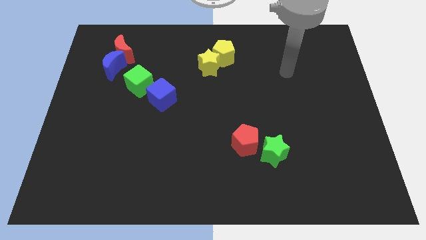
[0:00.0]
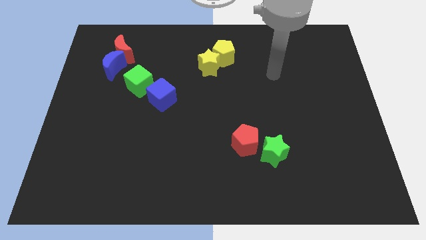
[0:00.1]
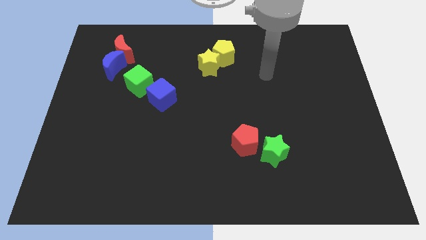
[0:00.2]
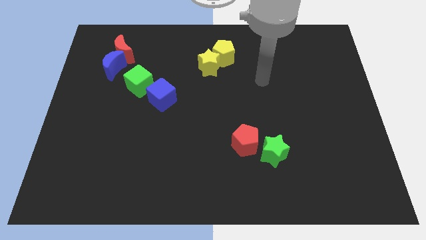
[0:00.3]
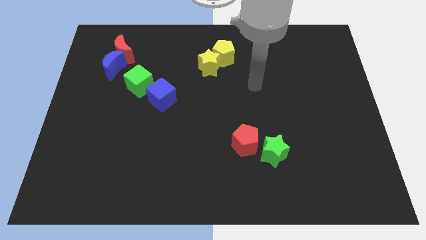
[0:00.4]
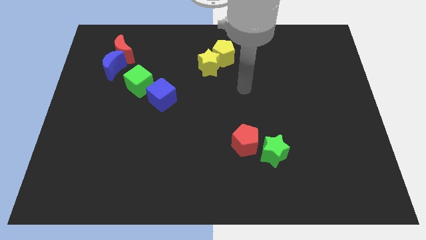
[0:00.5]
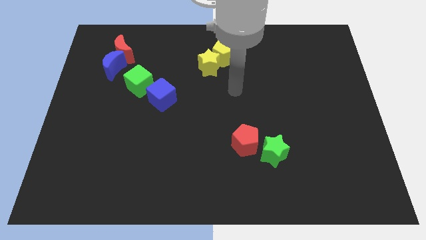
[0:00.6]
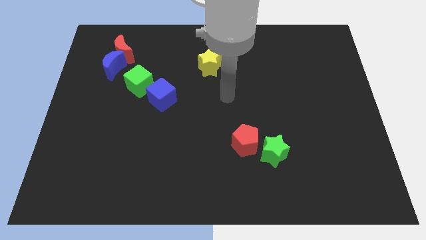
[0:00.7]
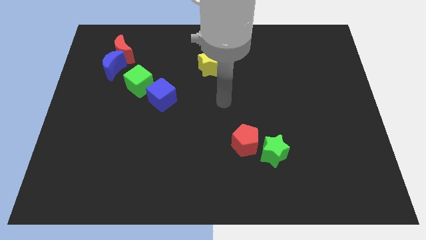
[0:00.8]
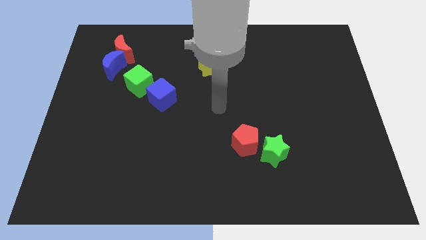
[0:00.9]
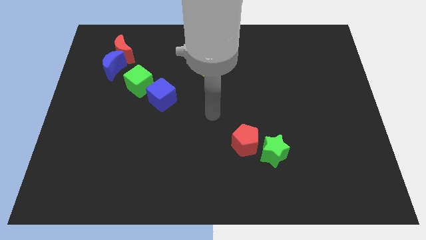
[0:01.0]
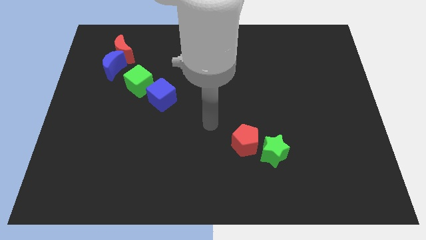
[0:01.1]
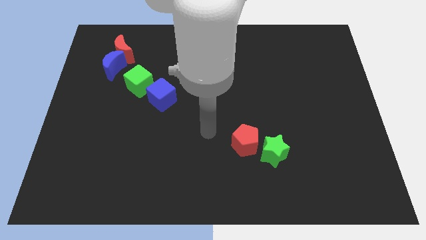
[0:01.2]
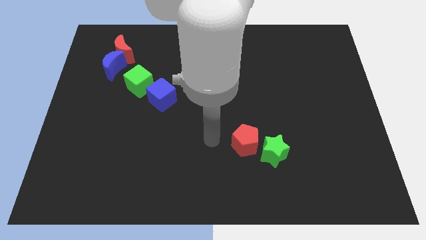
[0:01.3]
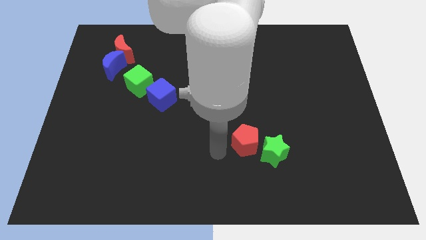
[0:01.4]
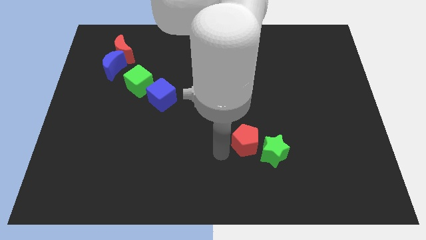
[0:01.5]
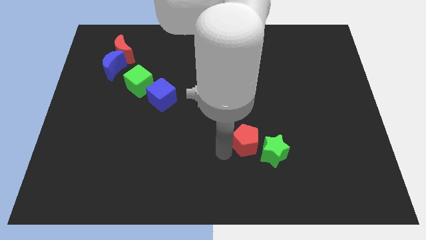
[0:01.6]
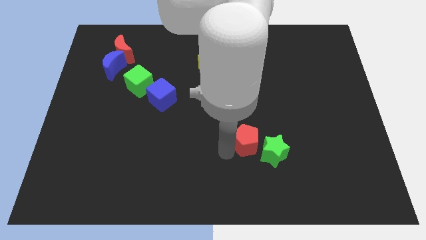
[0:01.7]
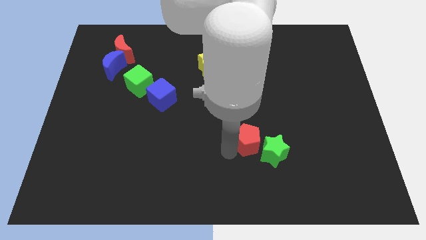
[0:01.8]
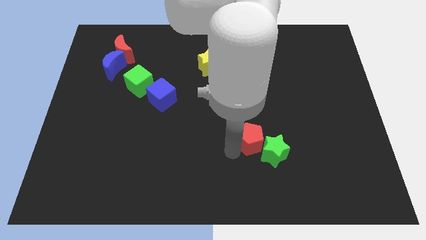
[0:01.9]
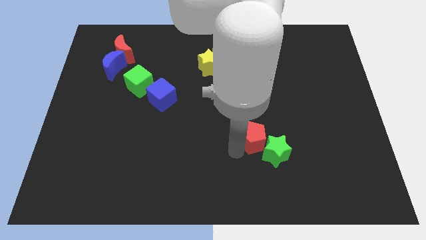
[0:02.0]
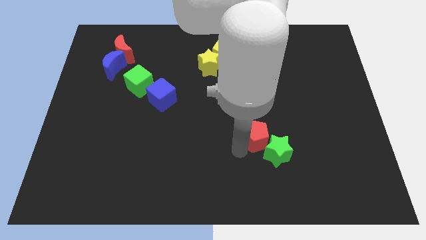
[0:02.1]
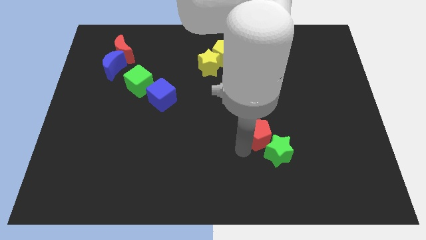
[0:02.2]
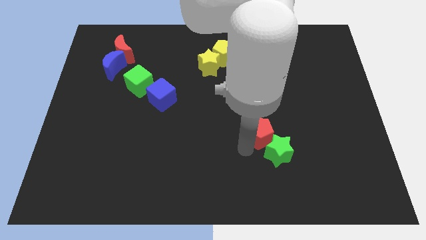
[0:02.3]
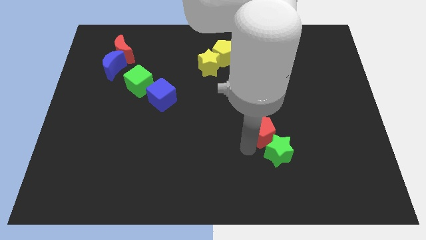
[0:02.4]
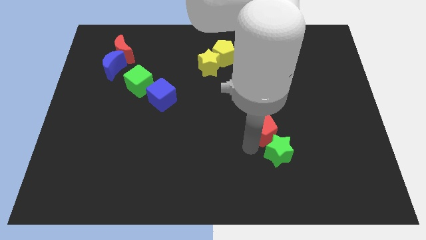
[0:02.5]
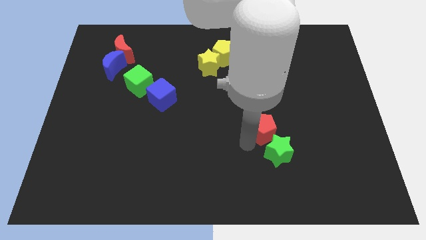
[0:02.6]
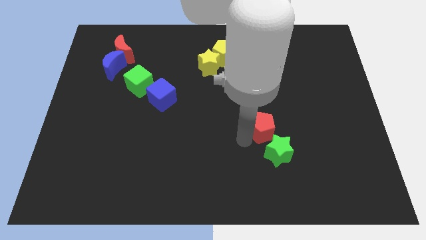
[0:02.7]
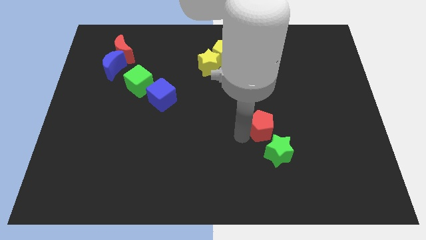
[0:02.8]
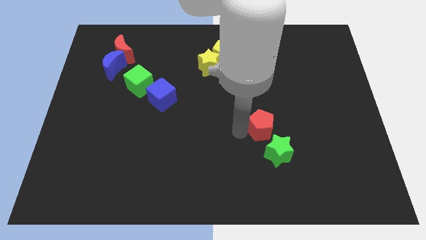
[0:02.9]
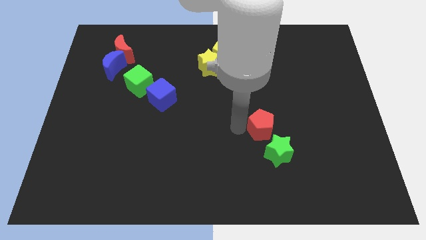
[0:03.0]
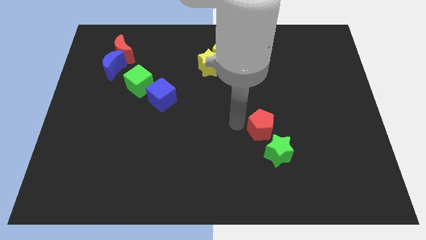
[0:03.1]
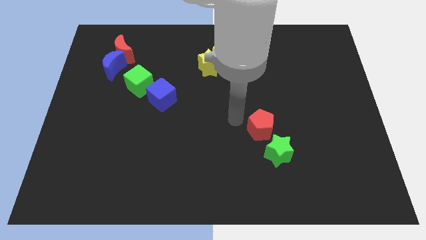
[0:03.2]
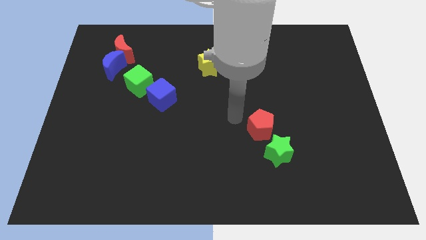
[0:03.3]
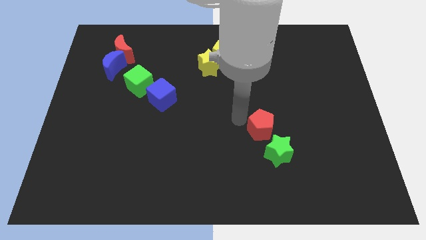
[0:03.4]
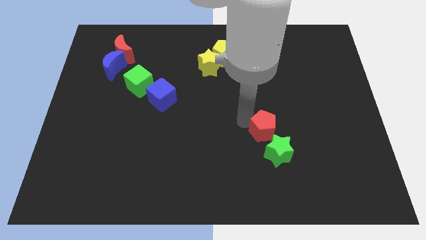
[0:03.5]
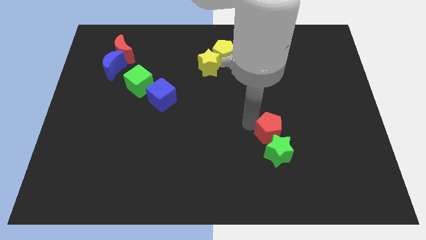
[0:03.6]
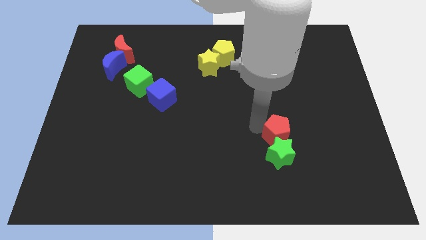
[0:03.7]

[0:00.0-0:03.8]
slightly slide the red pentagon to the right

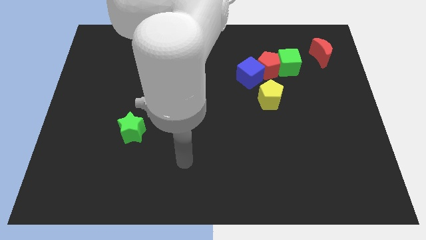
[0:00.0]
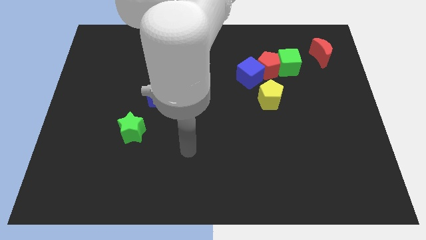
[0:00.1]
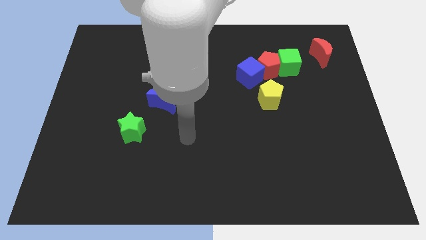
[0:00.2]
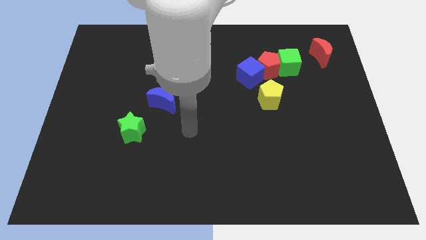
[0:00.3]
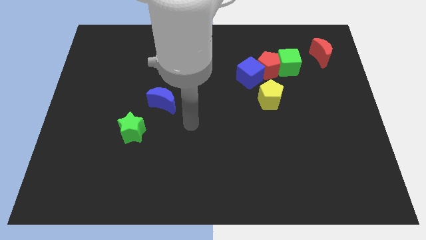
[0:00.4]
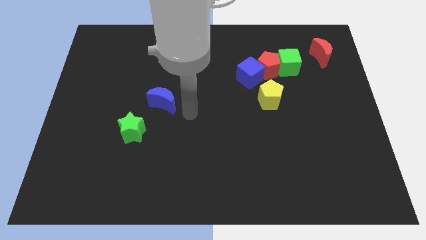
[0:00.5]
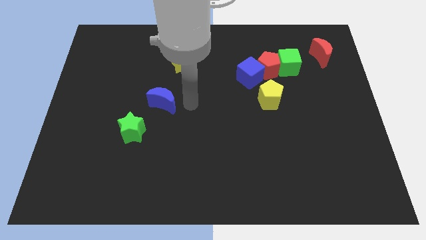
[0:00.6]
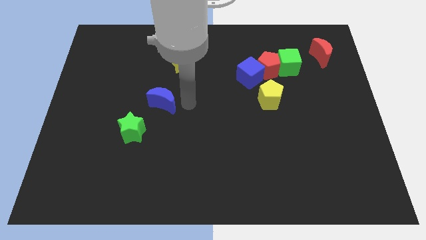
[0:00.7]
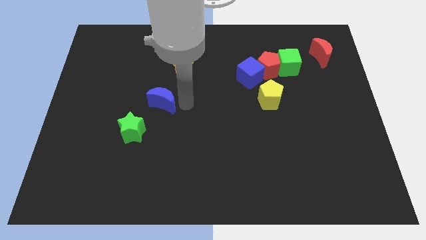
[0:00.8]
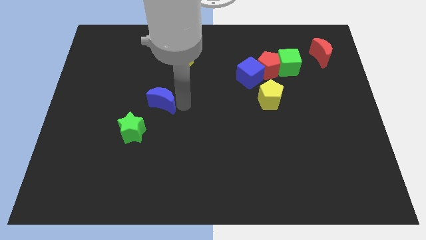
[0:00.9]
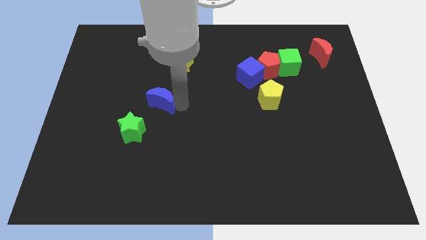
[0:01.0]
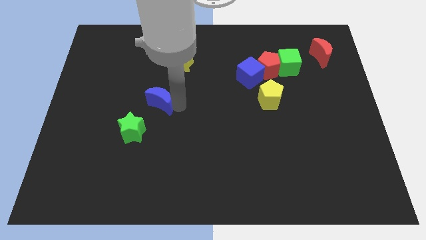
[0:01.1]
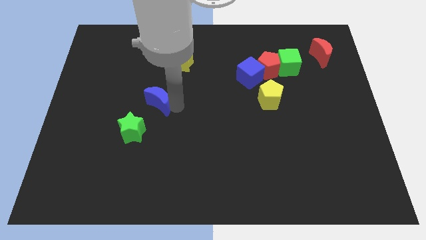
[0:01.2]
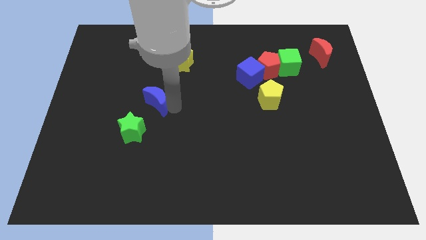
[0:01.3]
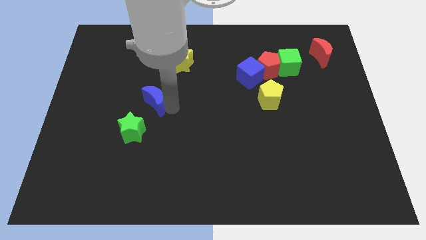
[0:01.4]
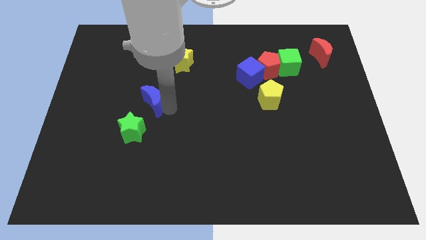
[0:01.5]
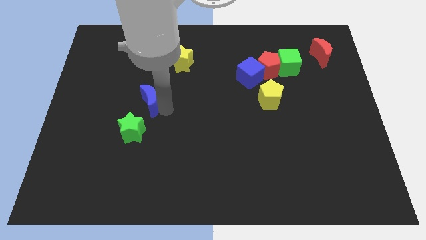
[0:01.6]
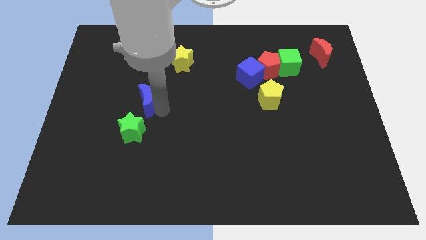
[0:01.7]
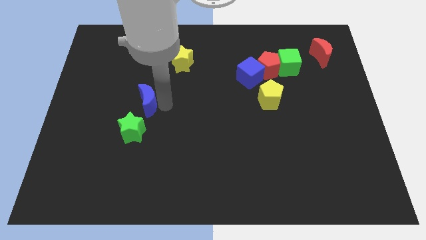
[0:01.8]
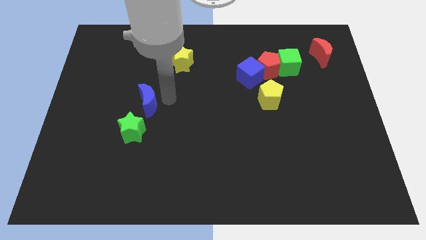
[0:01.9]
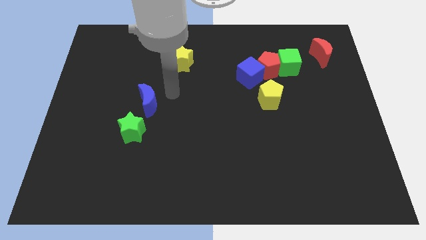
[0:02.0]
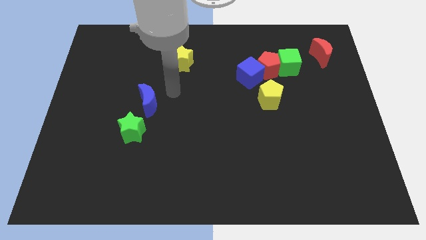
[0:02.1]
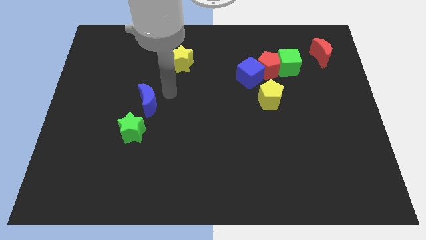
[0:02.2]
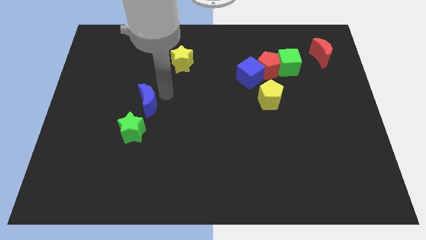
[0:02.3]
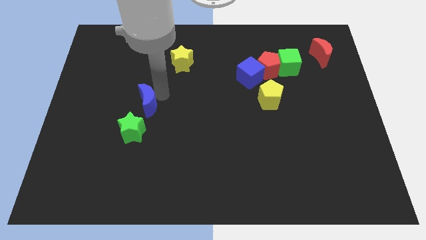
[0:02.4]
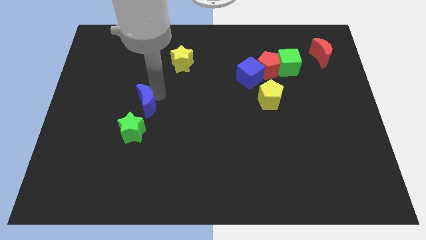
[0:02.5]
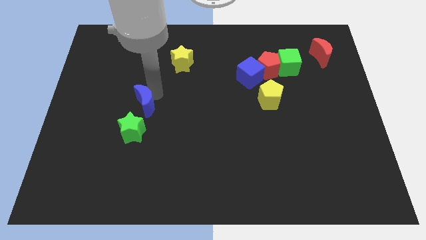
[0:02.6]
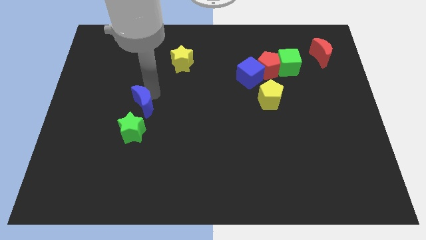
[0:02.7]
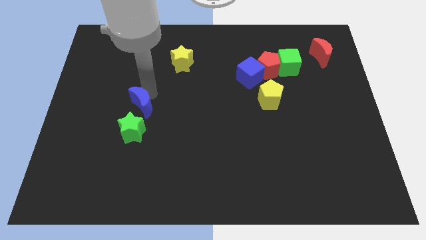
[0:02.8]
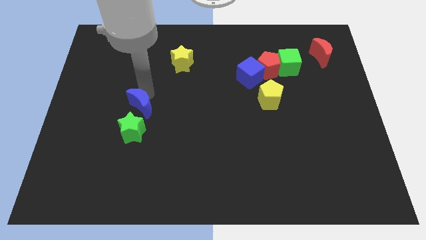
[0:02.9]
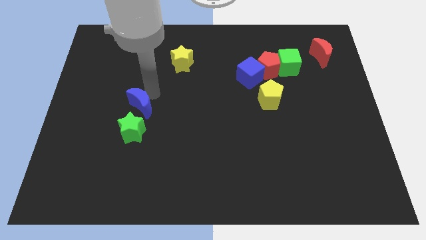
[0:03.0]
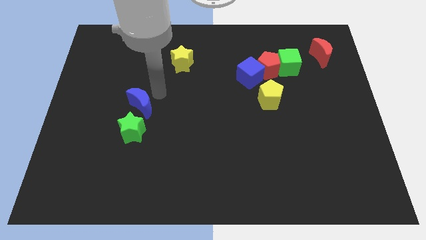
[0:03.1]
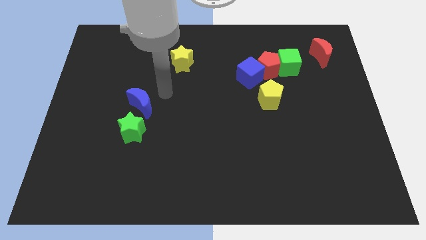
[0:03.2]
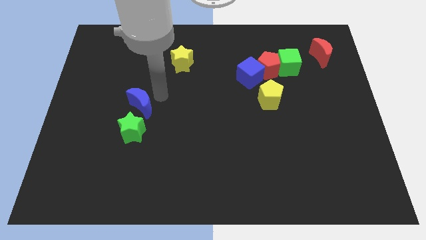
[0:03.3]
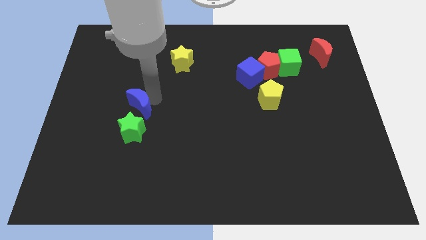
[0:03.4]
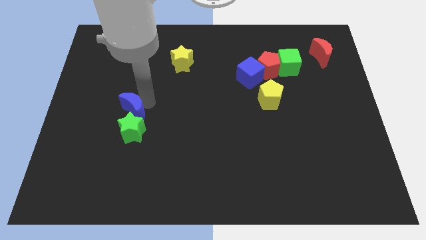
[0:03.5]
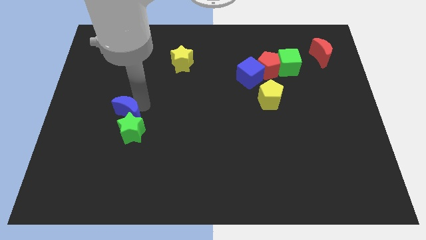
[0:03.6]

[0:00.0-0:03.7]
slide the blue moon diagonally downwards and left slightly
